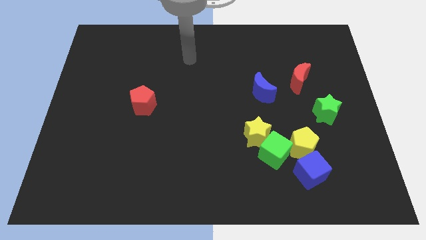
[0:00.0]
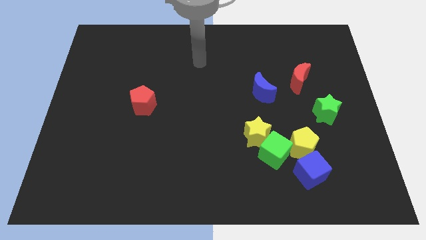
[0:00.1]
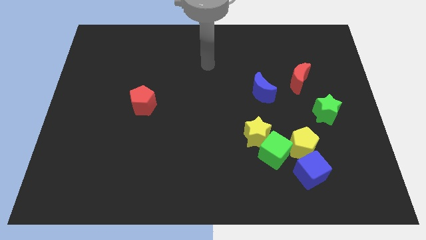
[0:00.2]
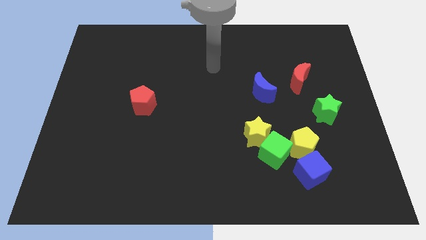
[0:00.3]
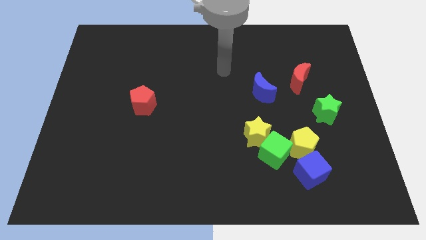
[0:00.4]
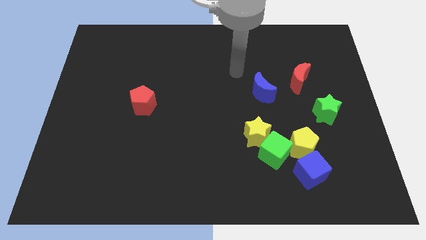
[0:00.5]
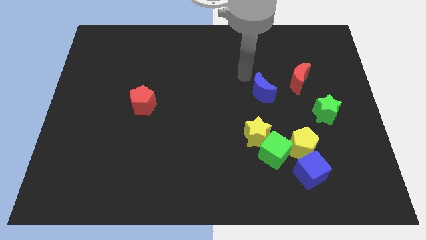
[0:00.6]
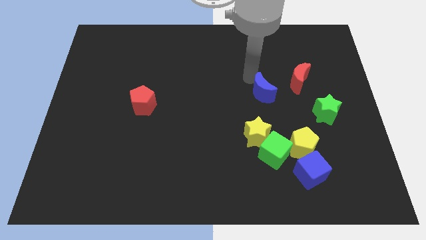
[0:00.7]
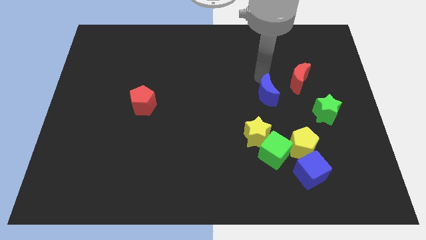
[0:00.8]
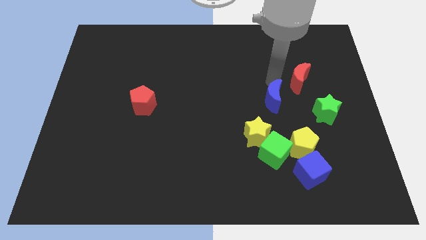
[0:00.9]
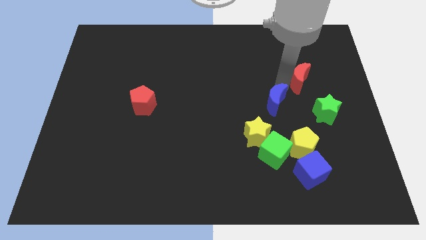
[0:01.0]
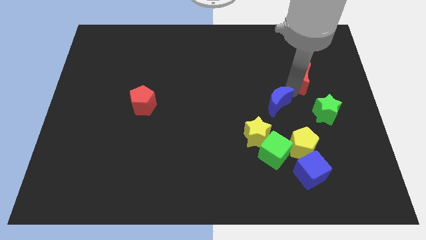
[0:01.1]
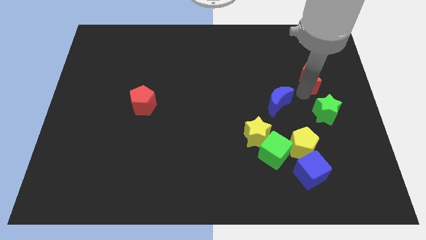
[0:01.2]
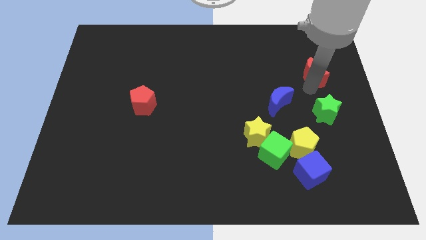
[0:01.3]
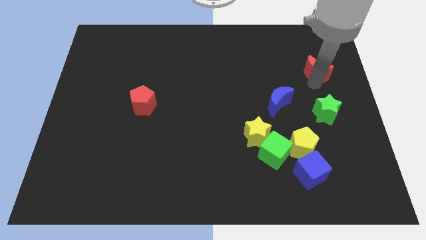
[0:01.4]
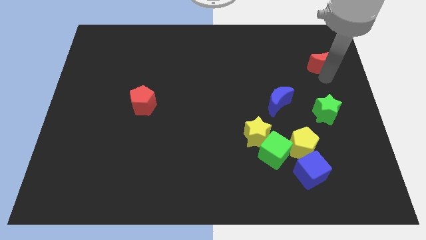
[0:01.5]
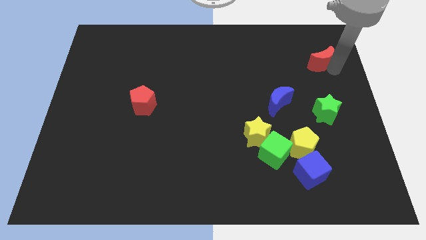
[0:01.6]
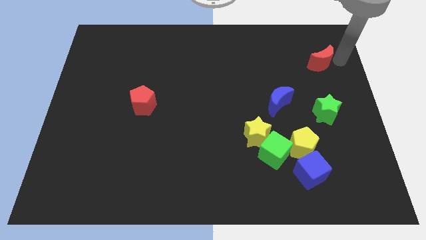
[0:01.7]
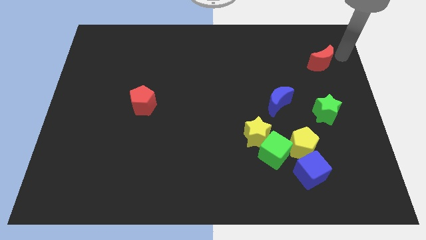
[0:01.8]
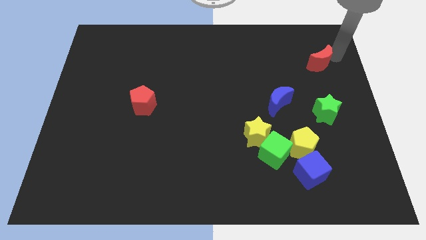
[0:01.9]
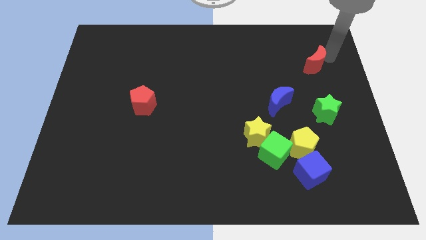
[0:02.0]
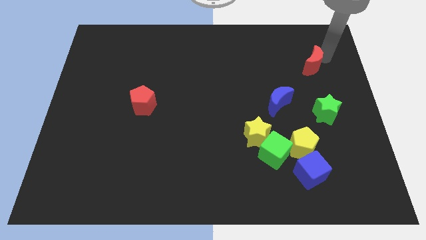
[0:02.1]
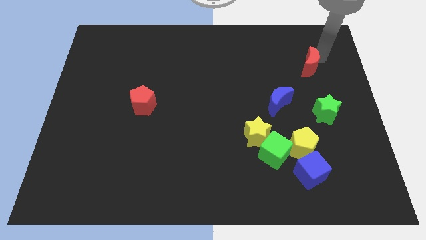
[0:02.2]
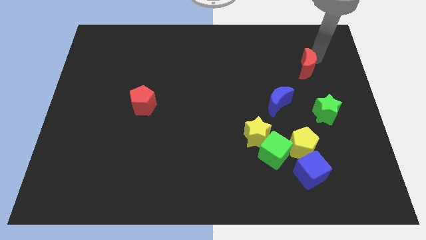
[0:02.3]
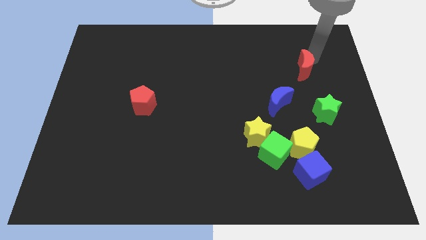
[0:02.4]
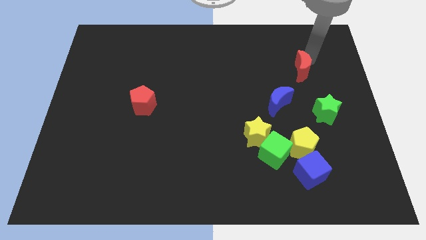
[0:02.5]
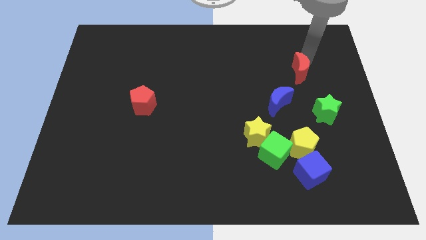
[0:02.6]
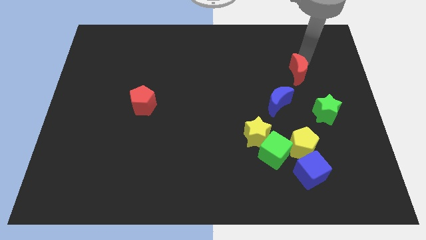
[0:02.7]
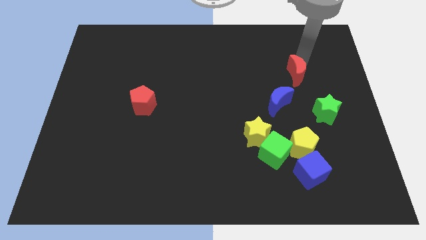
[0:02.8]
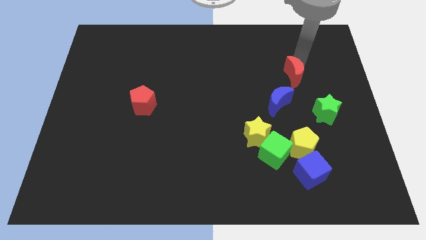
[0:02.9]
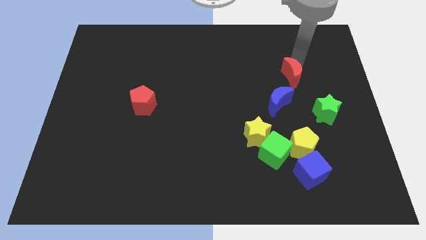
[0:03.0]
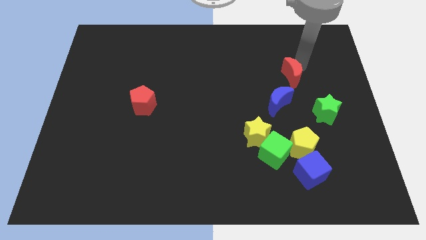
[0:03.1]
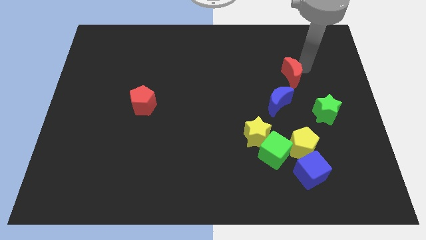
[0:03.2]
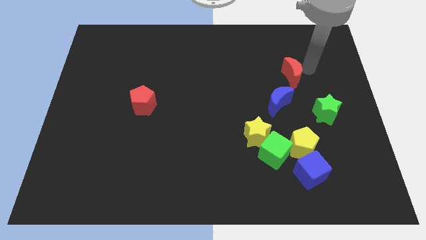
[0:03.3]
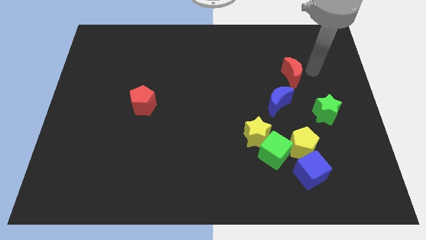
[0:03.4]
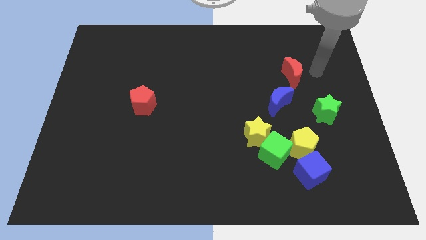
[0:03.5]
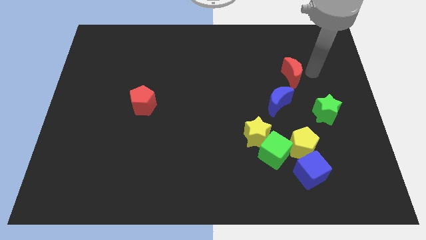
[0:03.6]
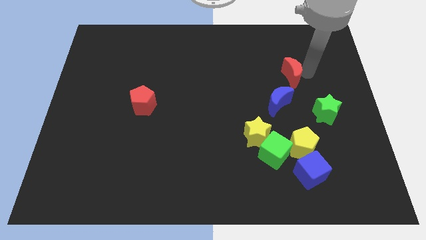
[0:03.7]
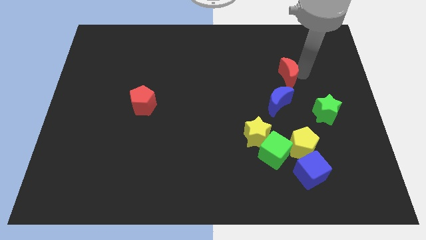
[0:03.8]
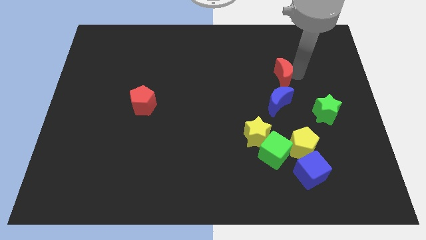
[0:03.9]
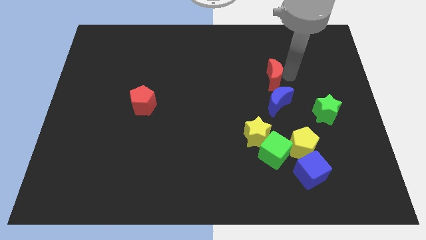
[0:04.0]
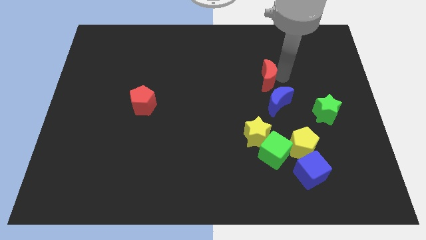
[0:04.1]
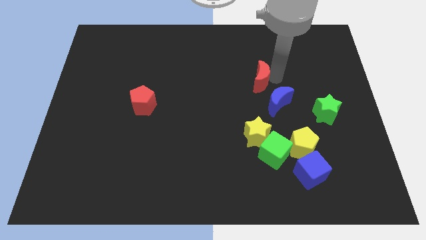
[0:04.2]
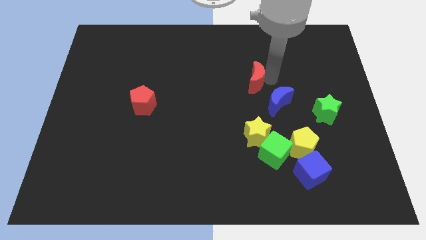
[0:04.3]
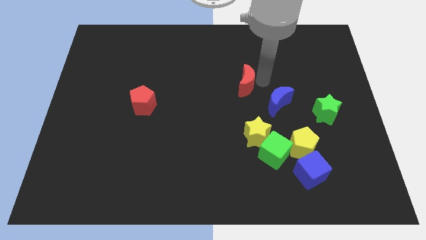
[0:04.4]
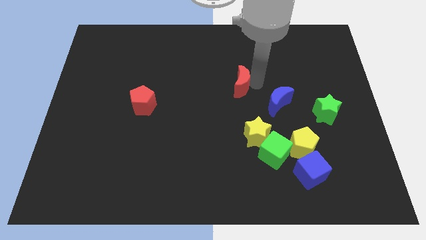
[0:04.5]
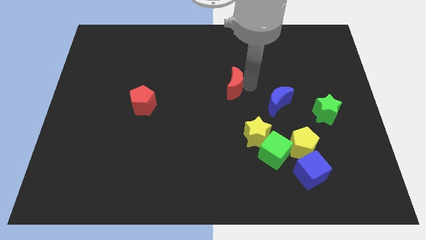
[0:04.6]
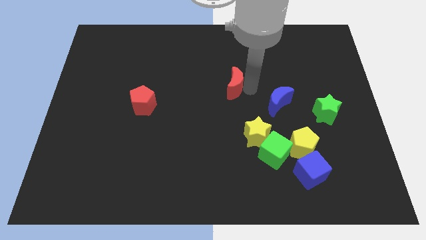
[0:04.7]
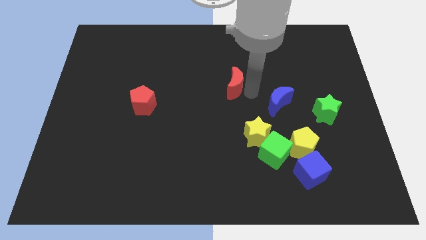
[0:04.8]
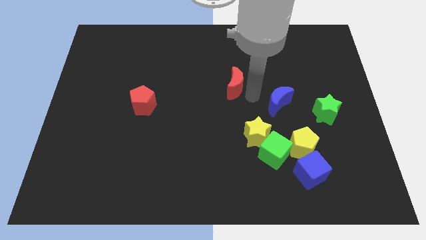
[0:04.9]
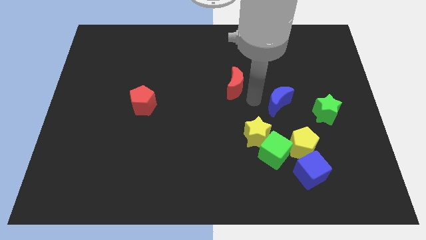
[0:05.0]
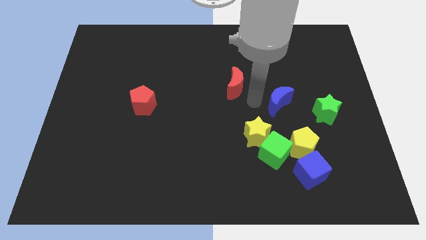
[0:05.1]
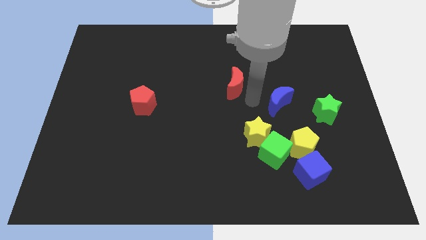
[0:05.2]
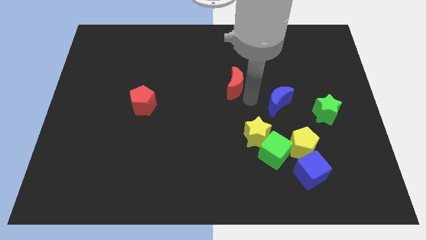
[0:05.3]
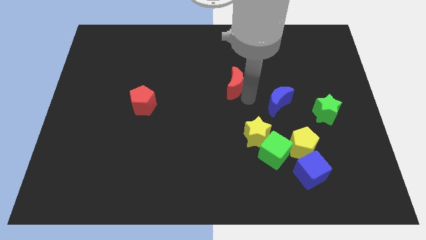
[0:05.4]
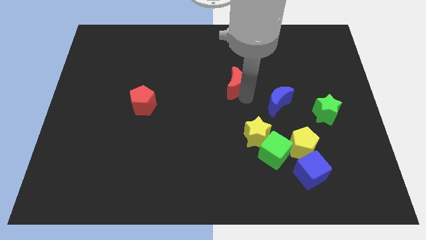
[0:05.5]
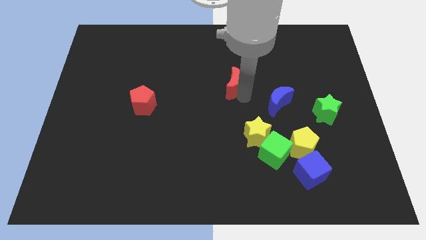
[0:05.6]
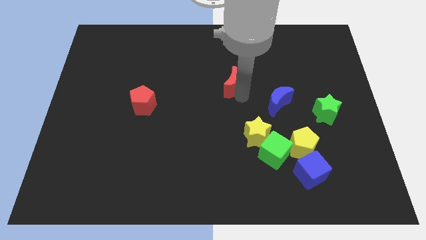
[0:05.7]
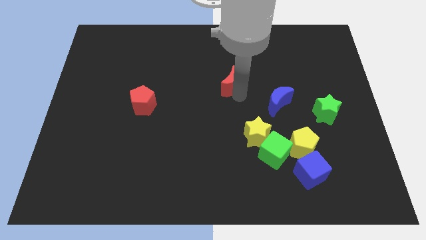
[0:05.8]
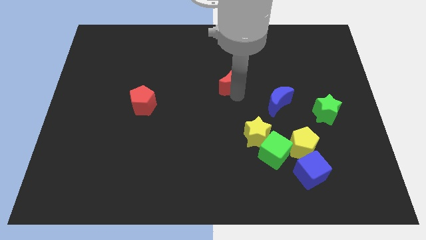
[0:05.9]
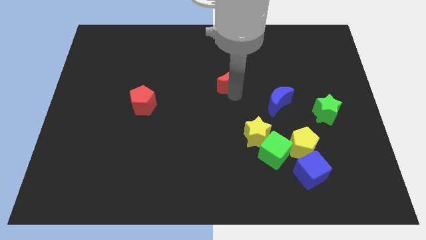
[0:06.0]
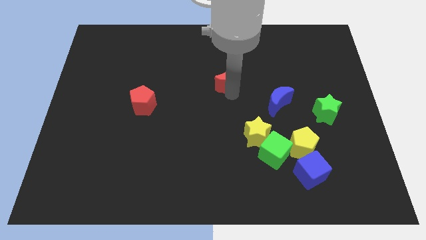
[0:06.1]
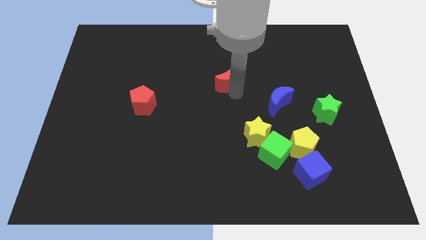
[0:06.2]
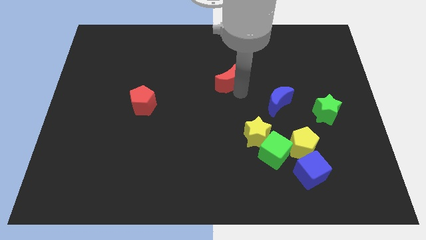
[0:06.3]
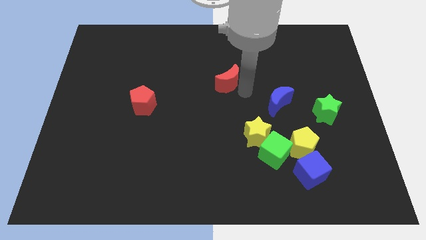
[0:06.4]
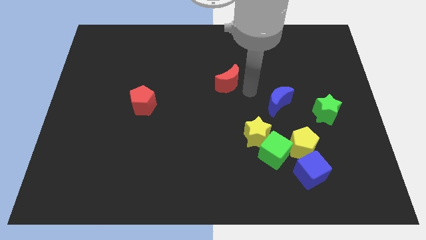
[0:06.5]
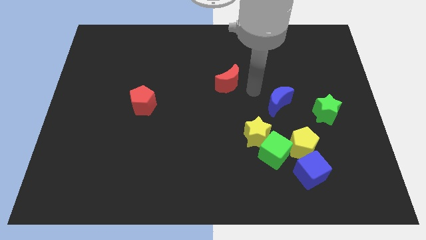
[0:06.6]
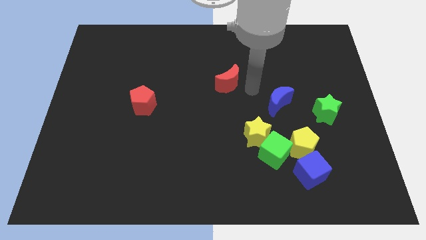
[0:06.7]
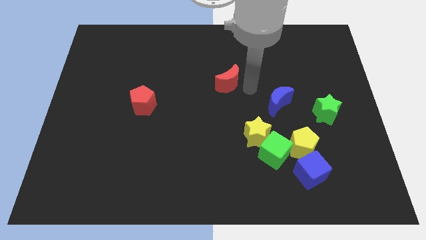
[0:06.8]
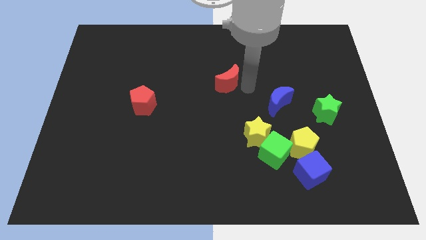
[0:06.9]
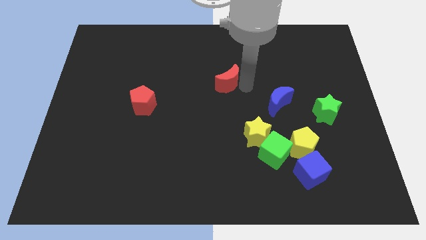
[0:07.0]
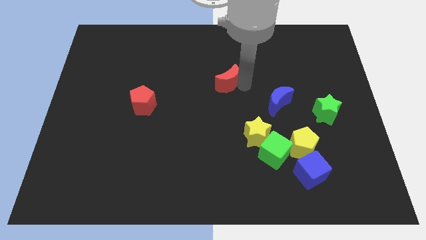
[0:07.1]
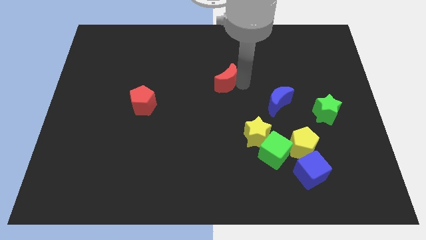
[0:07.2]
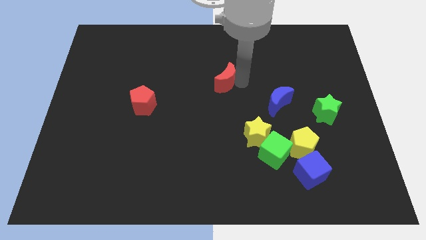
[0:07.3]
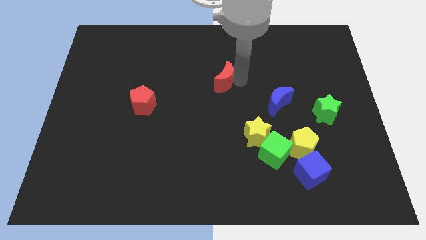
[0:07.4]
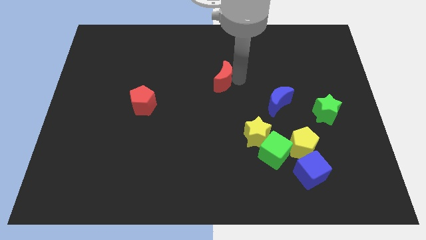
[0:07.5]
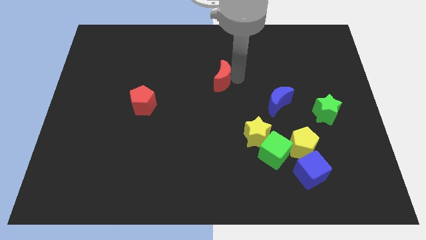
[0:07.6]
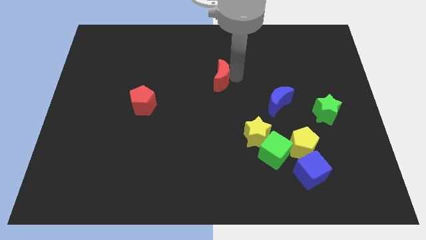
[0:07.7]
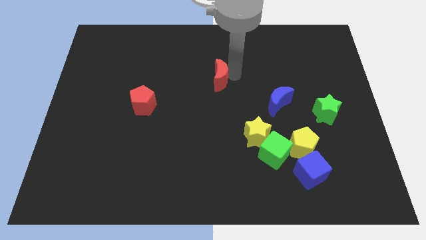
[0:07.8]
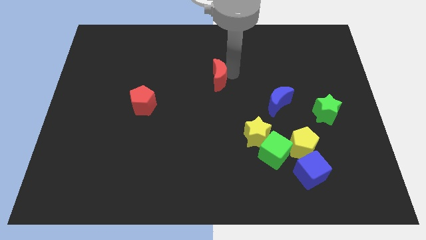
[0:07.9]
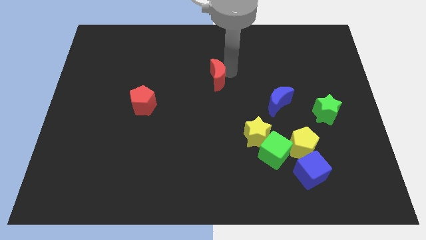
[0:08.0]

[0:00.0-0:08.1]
slide the red moon to the left
